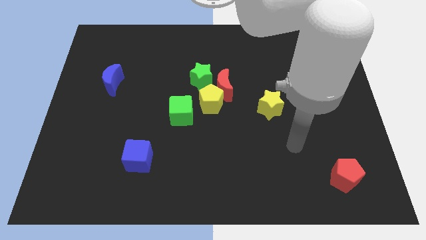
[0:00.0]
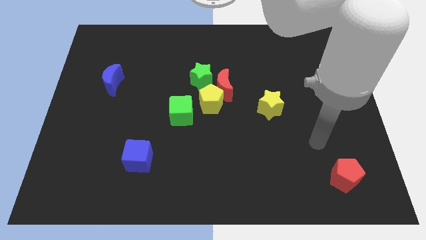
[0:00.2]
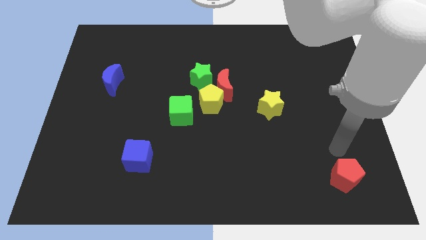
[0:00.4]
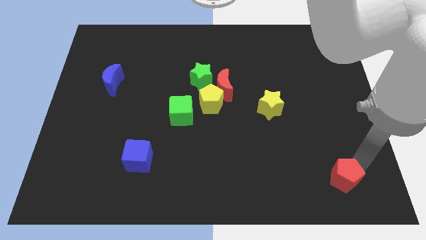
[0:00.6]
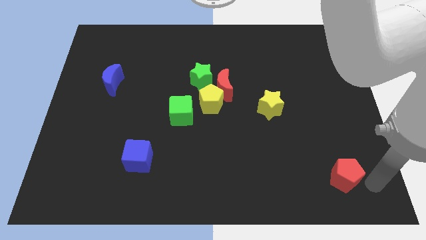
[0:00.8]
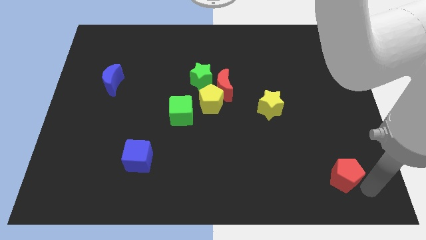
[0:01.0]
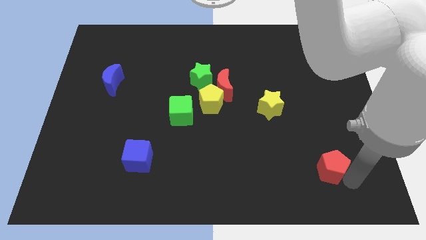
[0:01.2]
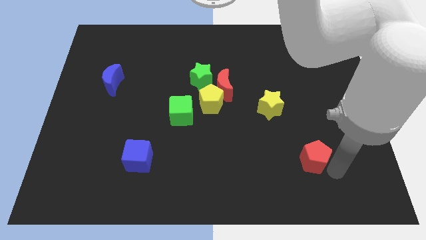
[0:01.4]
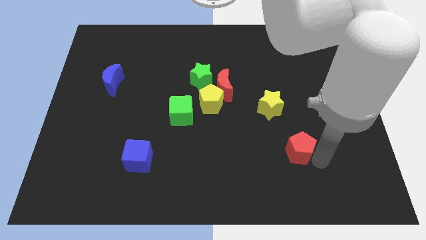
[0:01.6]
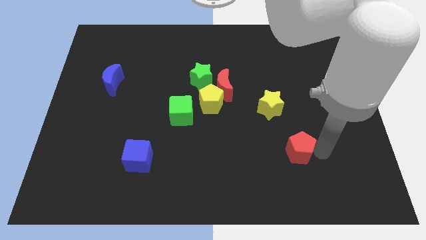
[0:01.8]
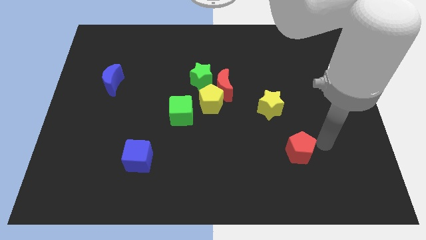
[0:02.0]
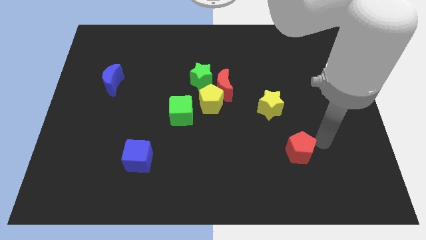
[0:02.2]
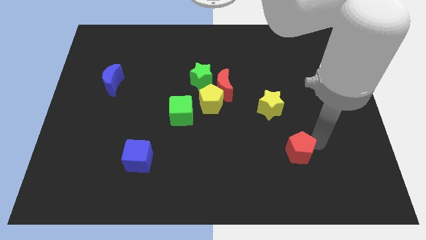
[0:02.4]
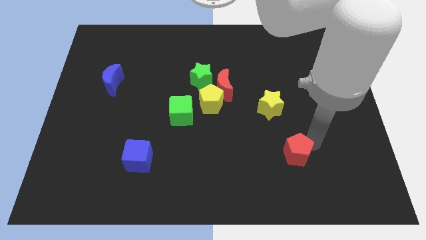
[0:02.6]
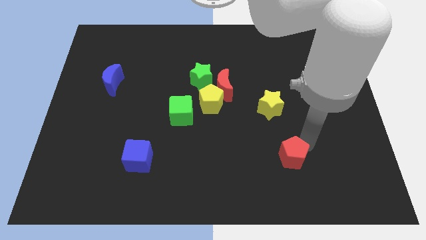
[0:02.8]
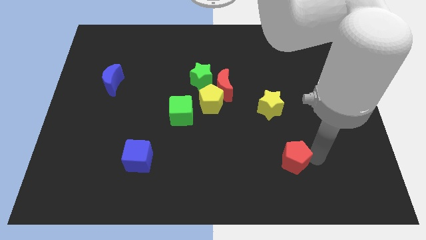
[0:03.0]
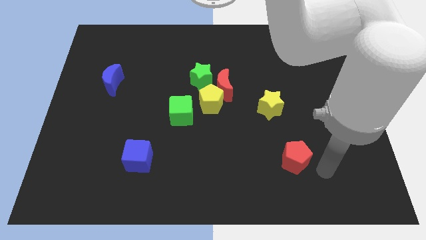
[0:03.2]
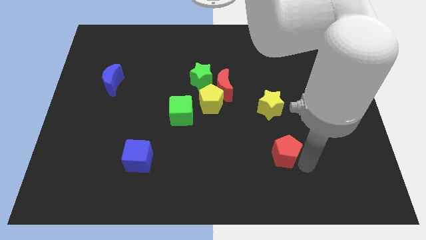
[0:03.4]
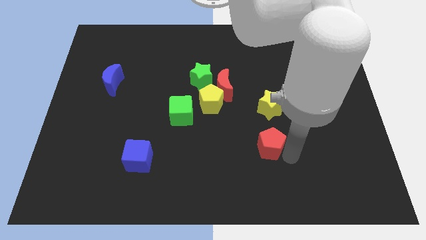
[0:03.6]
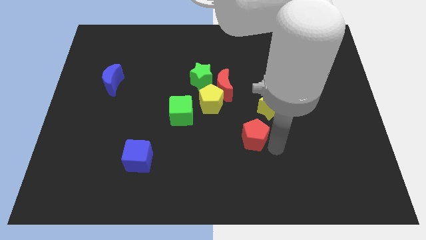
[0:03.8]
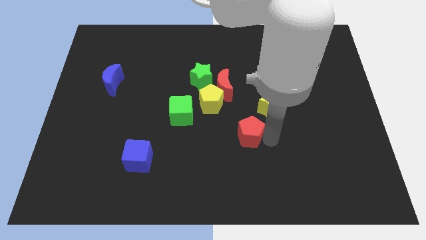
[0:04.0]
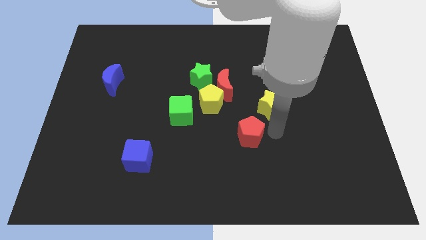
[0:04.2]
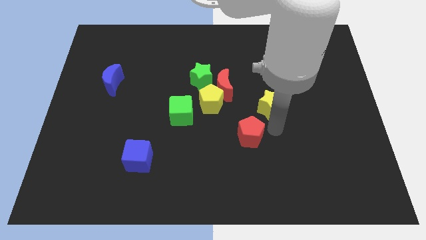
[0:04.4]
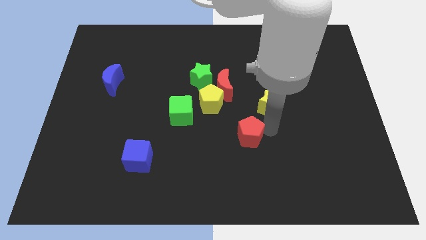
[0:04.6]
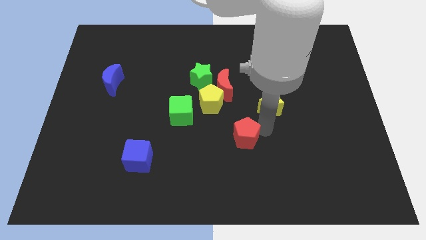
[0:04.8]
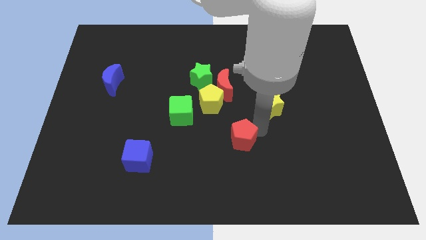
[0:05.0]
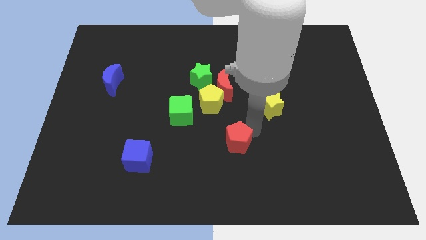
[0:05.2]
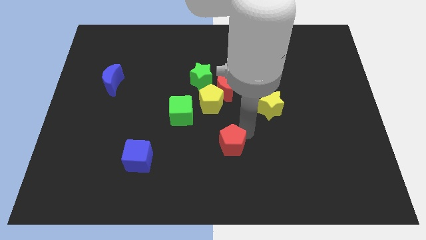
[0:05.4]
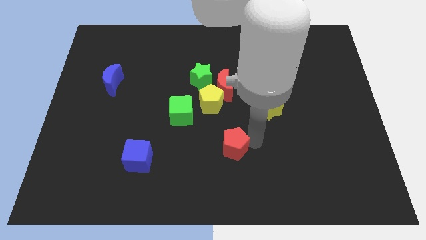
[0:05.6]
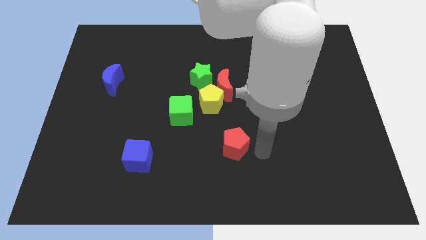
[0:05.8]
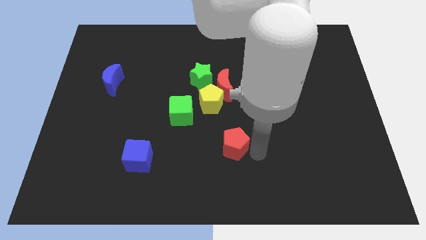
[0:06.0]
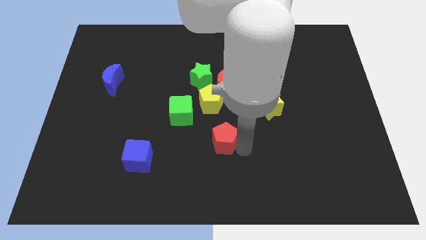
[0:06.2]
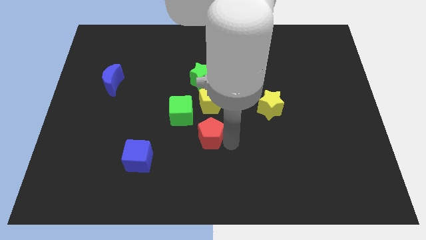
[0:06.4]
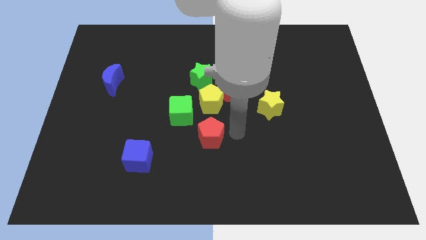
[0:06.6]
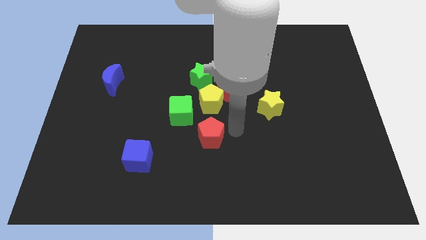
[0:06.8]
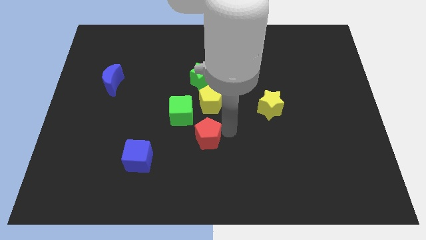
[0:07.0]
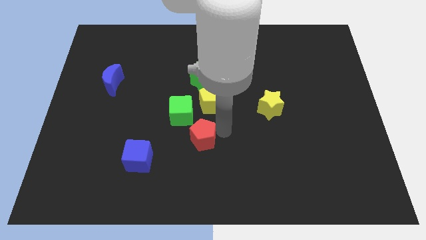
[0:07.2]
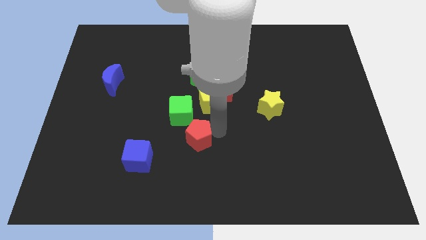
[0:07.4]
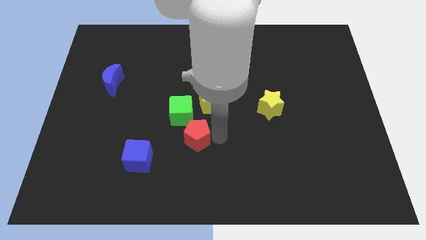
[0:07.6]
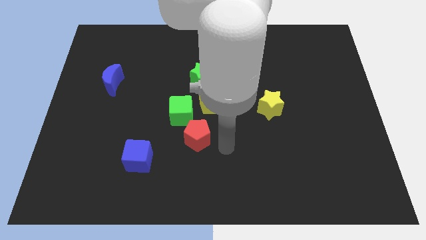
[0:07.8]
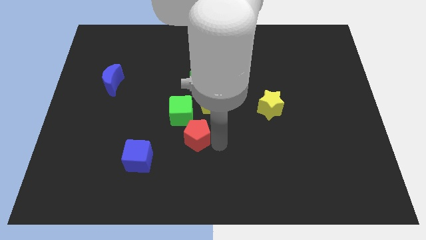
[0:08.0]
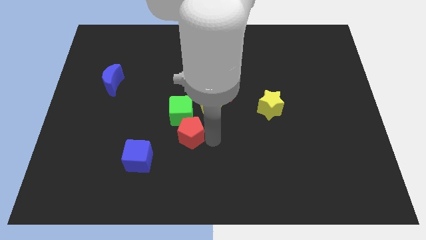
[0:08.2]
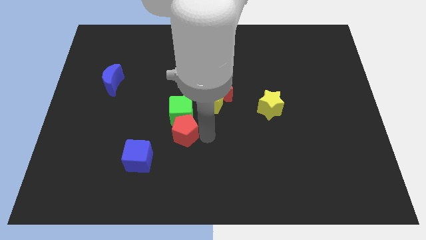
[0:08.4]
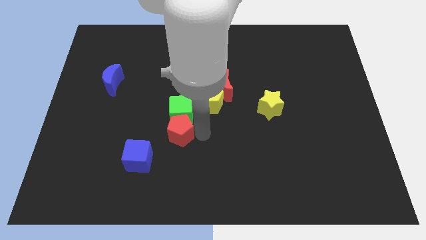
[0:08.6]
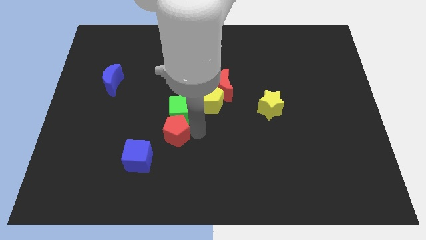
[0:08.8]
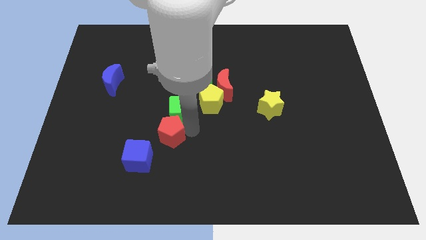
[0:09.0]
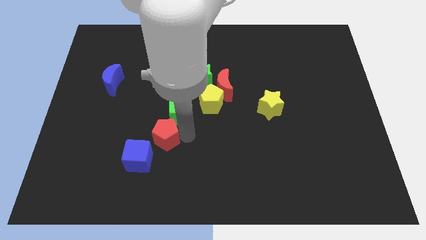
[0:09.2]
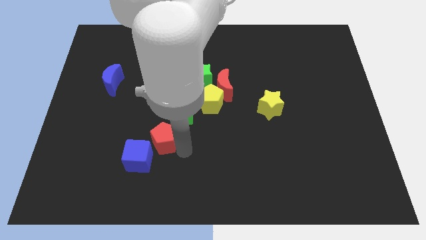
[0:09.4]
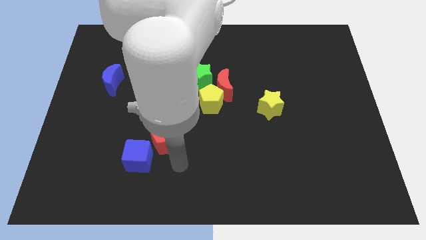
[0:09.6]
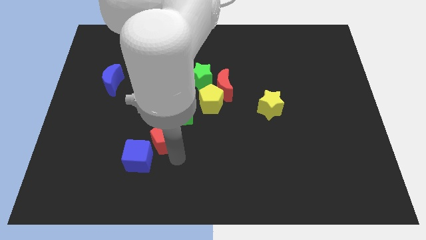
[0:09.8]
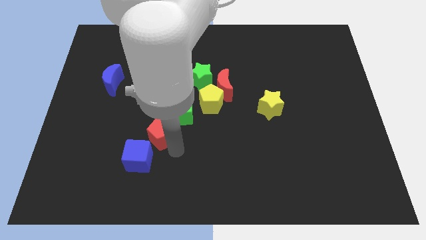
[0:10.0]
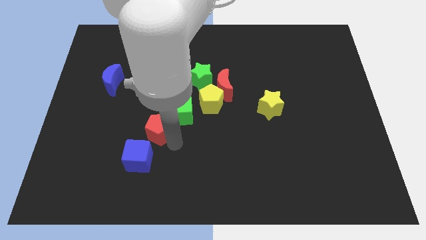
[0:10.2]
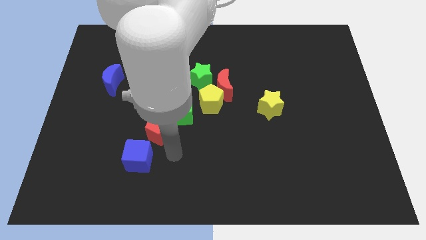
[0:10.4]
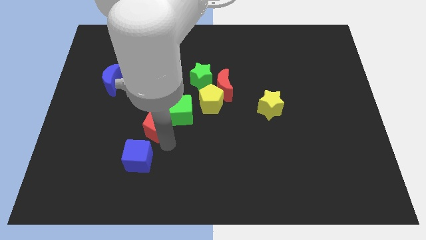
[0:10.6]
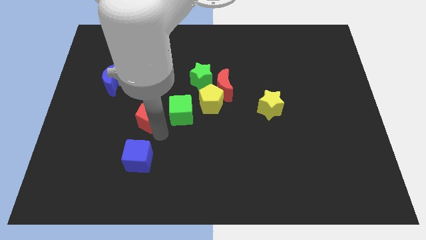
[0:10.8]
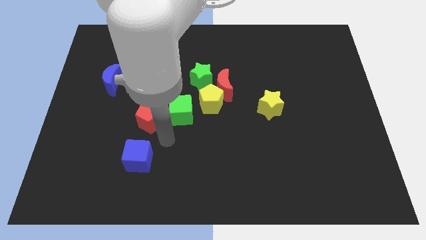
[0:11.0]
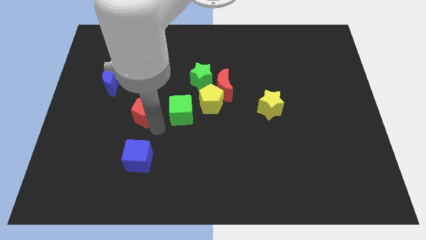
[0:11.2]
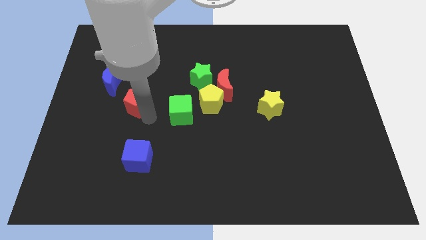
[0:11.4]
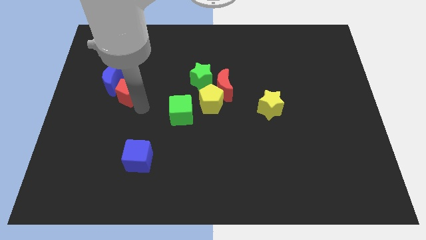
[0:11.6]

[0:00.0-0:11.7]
put the red pentagon close to the blue moon

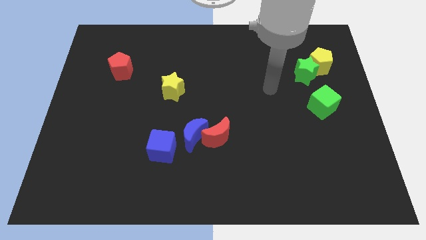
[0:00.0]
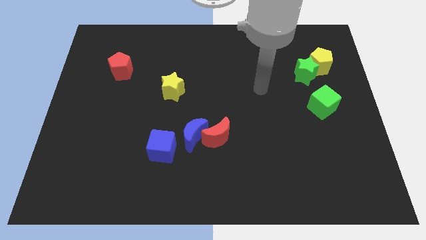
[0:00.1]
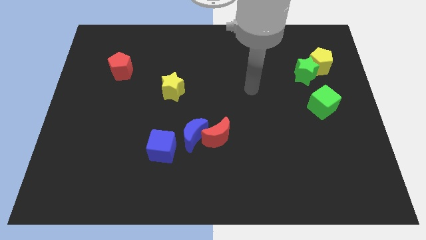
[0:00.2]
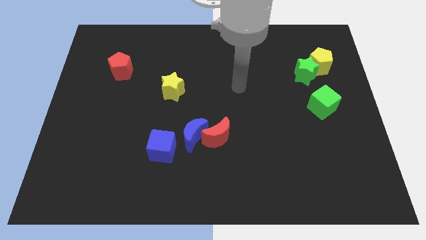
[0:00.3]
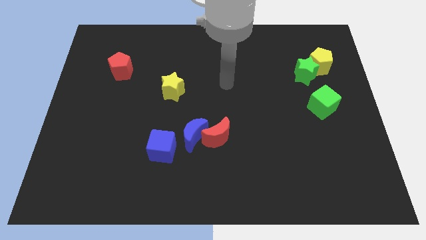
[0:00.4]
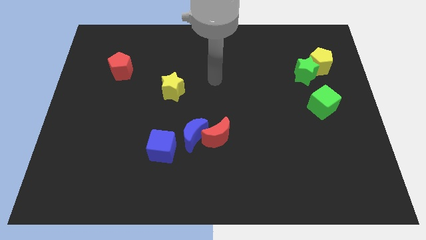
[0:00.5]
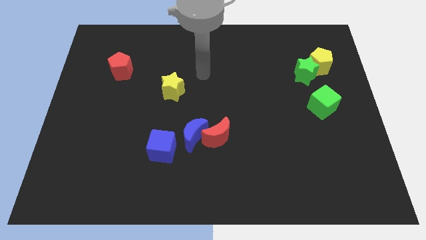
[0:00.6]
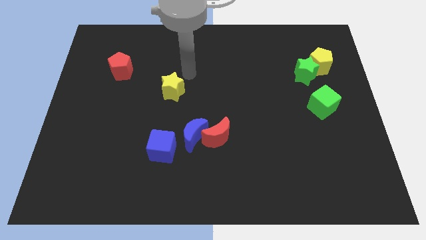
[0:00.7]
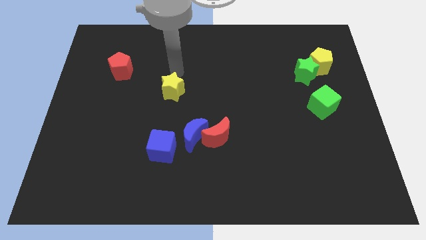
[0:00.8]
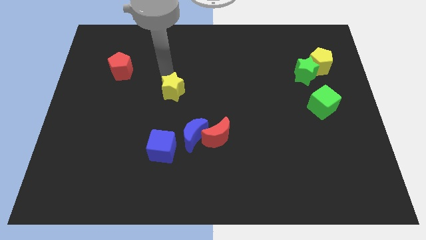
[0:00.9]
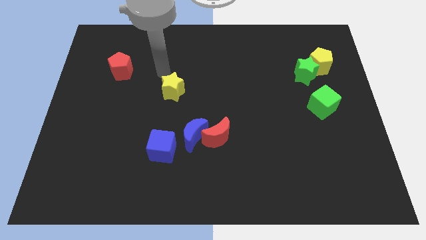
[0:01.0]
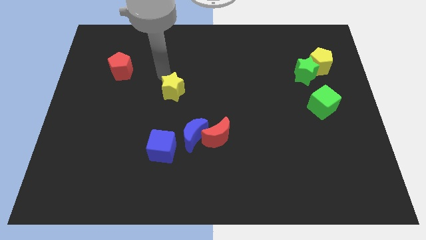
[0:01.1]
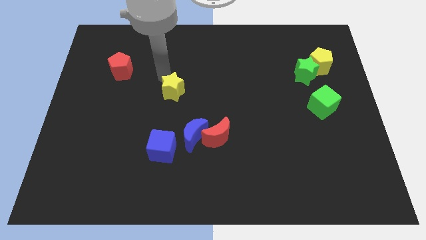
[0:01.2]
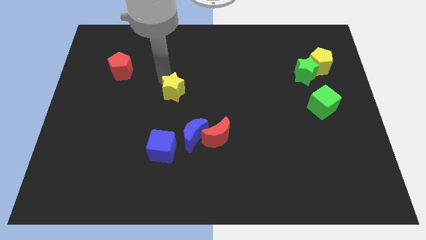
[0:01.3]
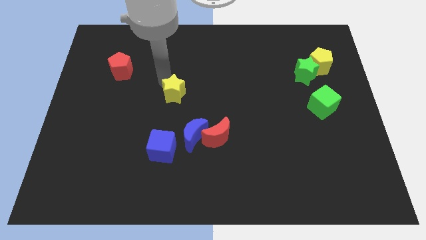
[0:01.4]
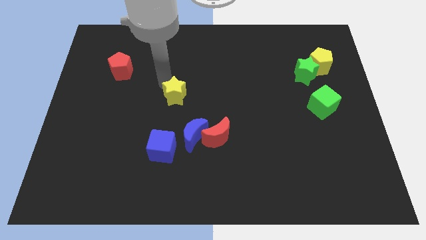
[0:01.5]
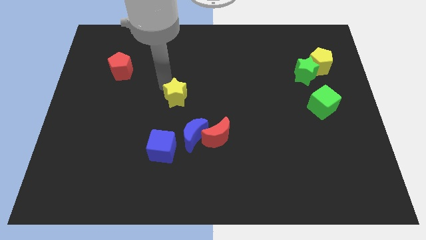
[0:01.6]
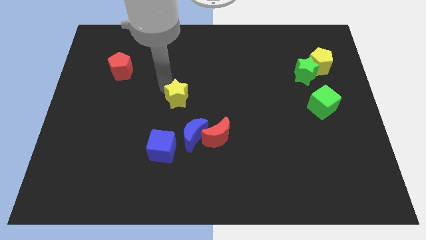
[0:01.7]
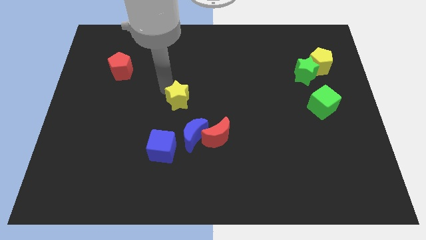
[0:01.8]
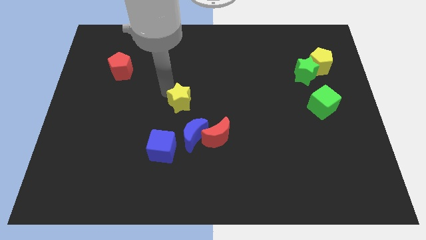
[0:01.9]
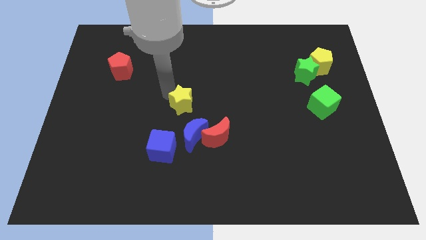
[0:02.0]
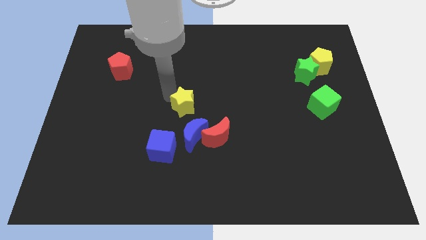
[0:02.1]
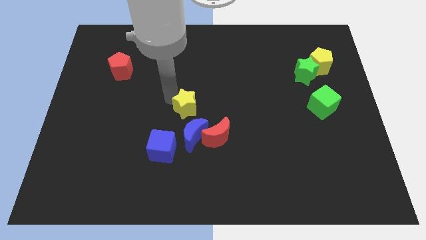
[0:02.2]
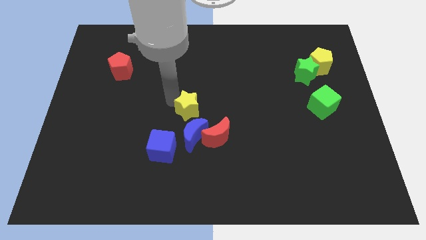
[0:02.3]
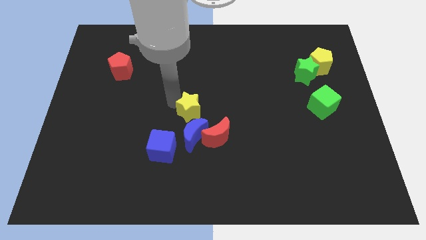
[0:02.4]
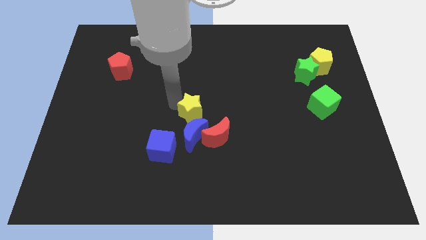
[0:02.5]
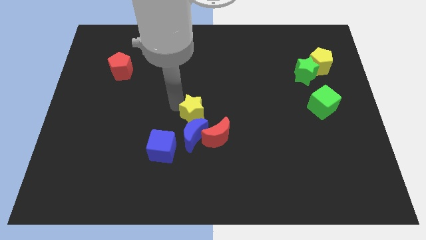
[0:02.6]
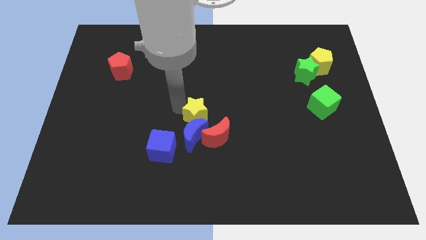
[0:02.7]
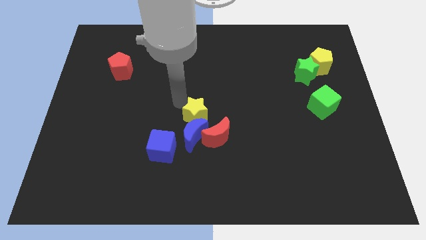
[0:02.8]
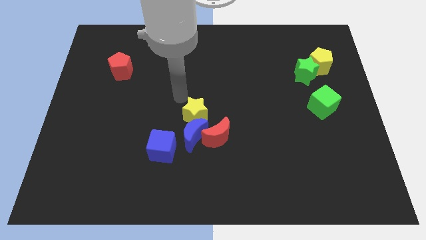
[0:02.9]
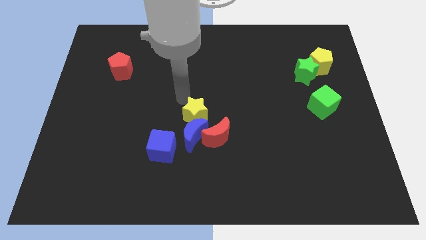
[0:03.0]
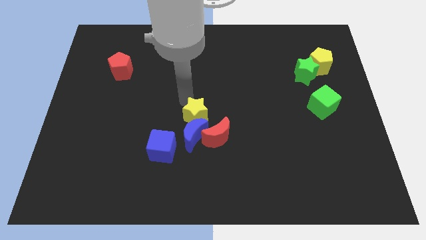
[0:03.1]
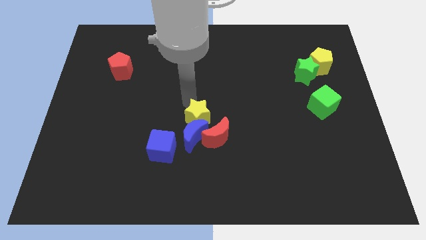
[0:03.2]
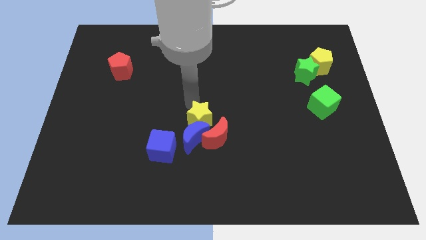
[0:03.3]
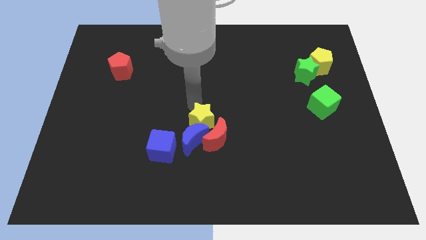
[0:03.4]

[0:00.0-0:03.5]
push the yellow star next to the red moon
